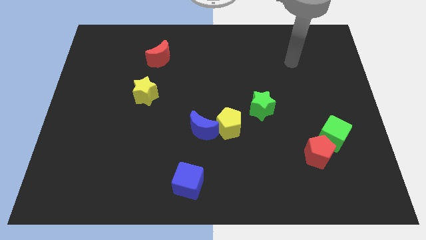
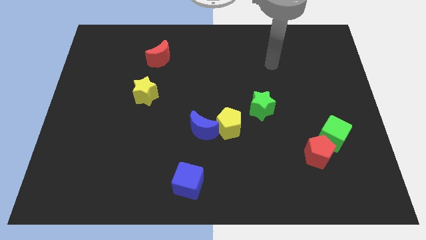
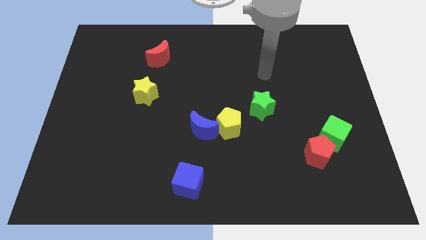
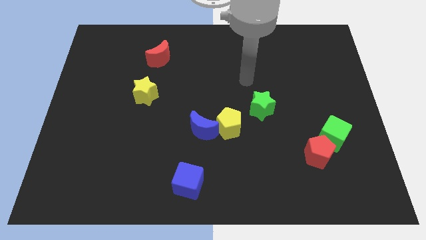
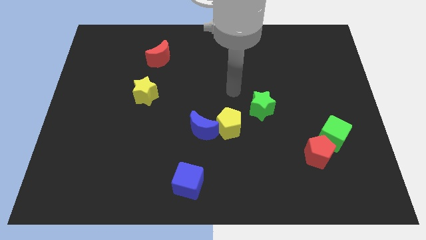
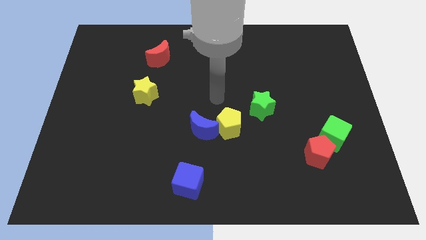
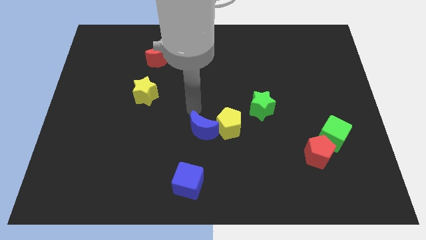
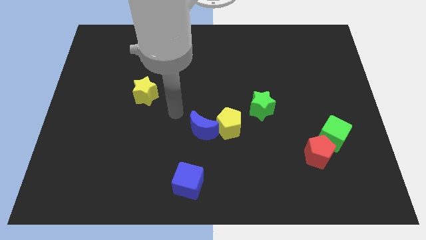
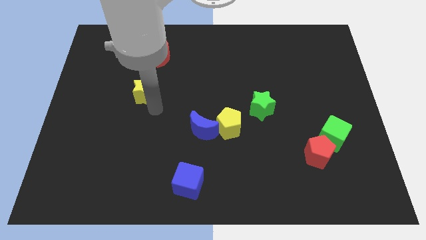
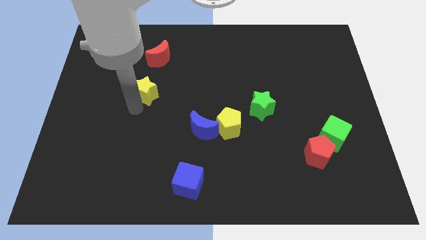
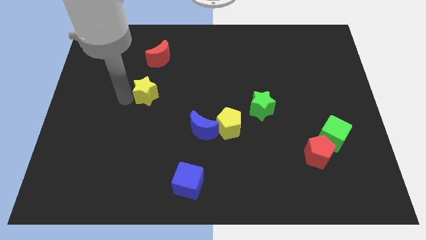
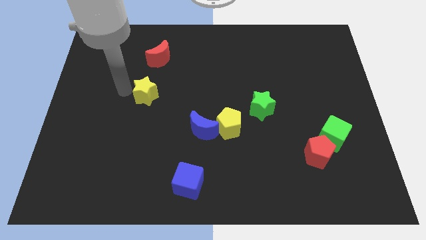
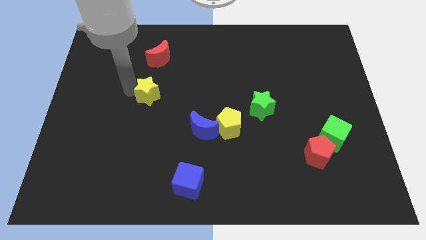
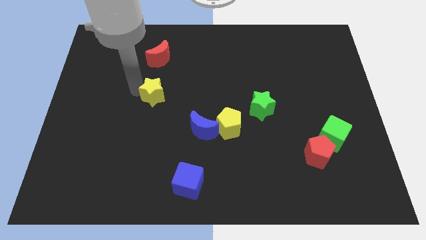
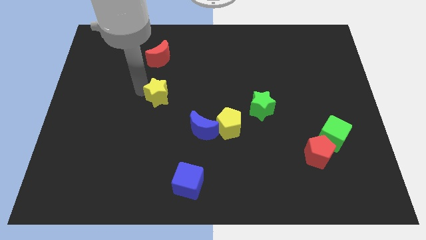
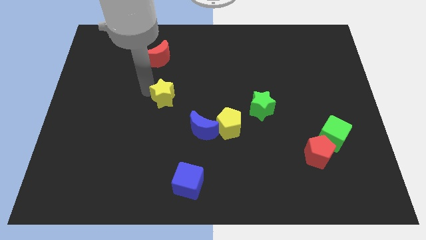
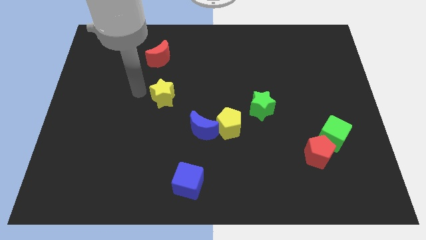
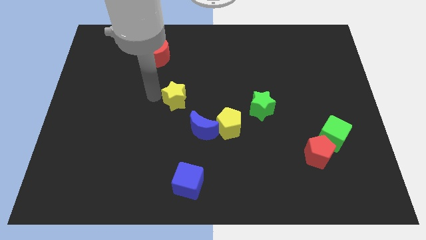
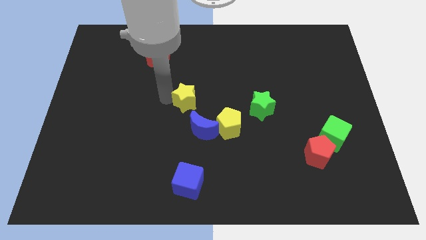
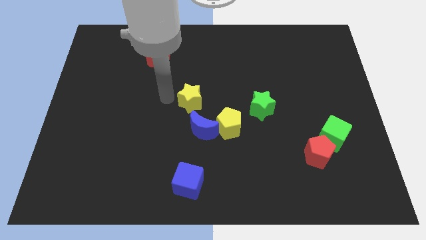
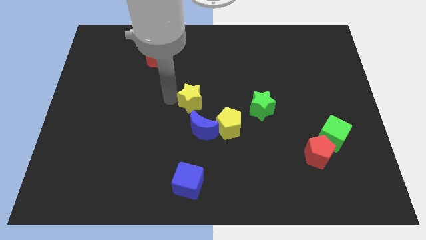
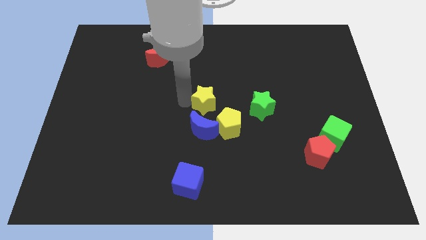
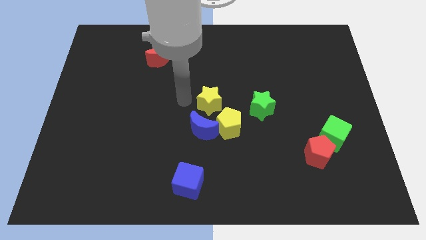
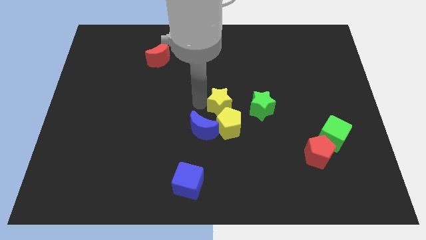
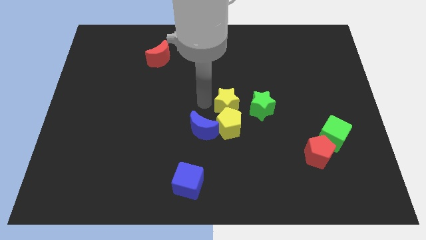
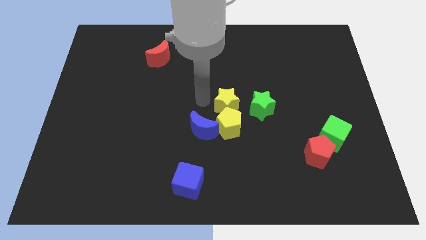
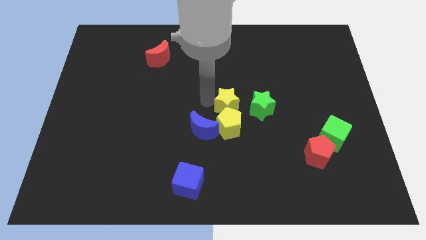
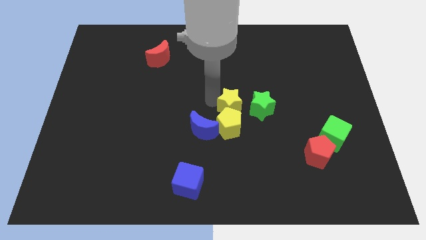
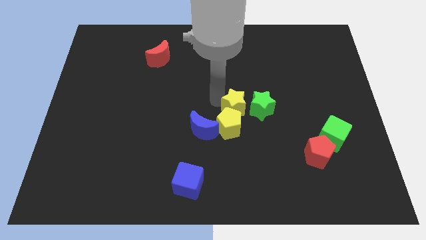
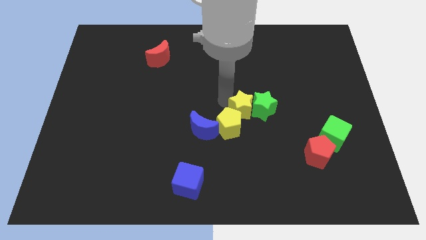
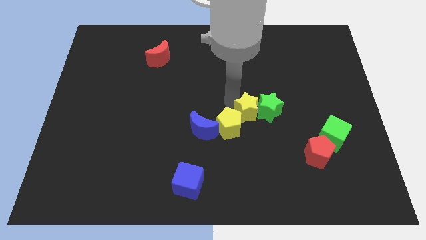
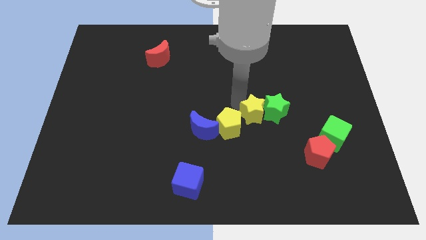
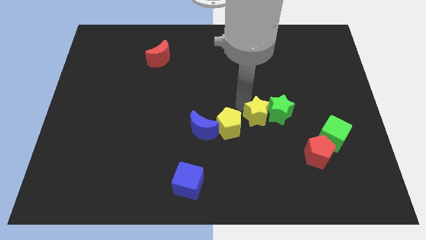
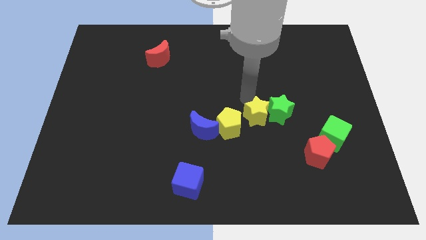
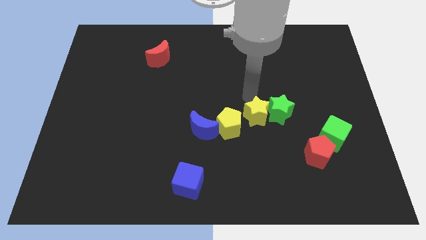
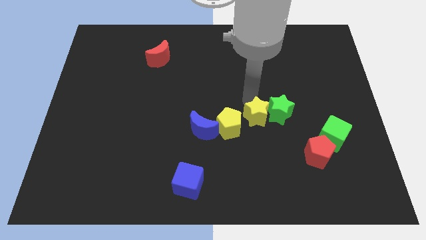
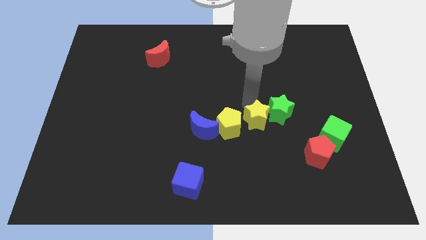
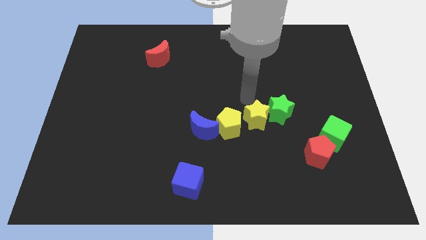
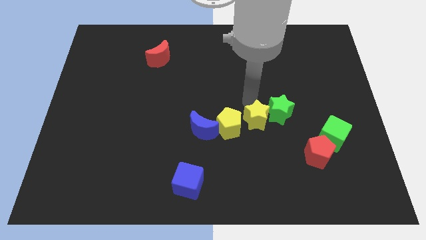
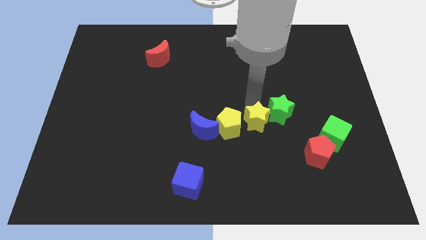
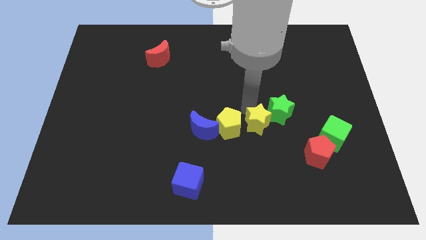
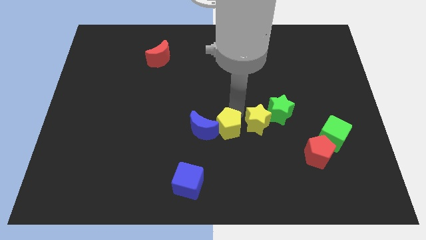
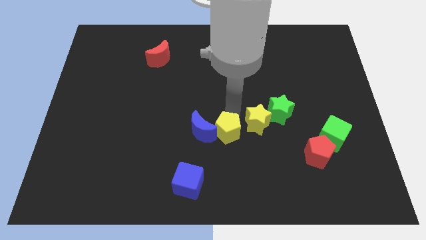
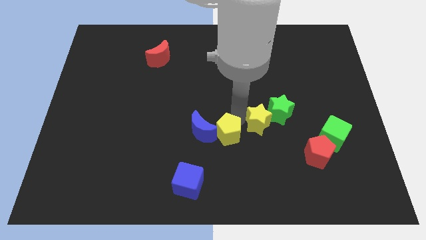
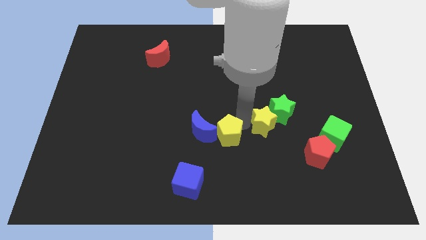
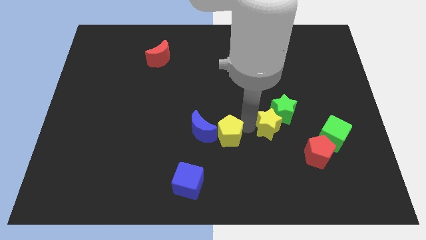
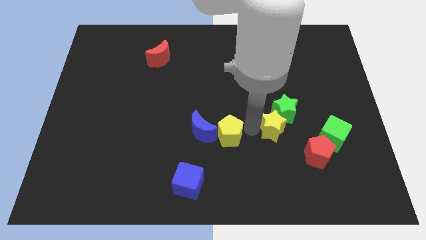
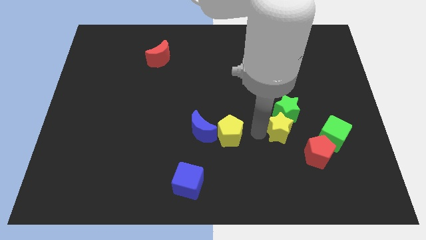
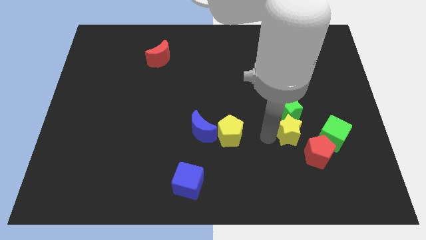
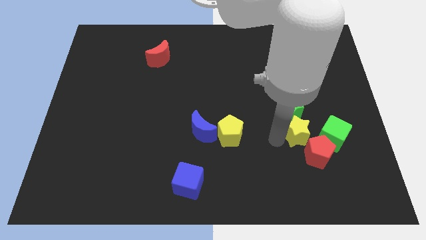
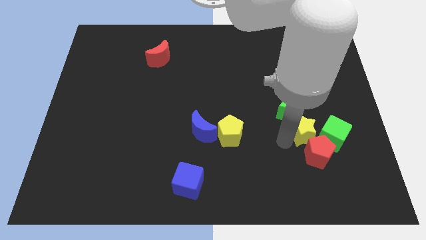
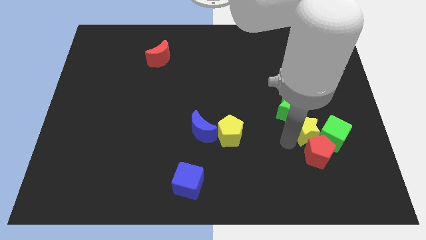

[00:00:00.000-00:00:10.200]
push the yellow star to the green cube

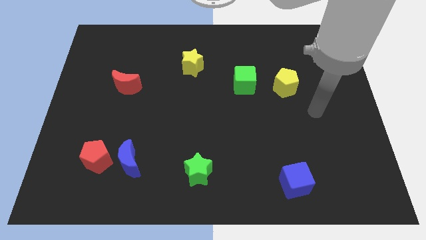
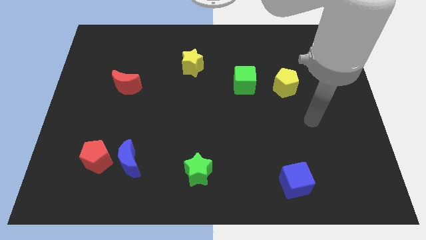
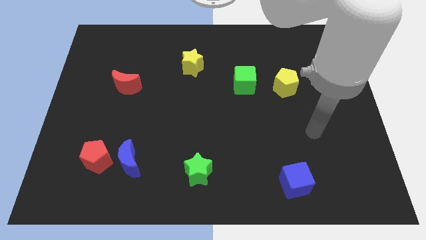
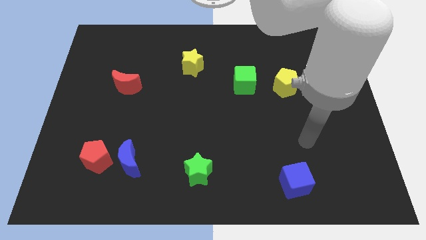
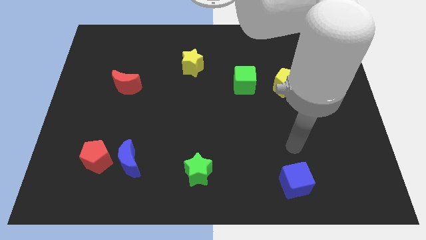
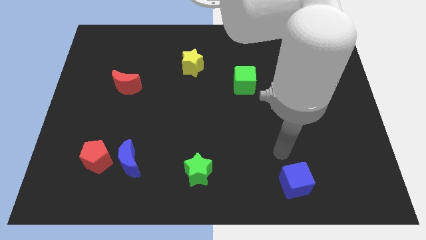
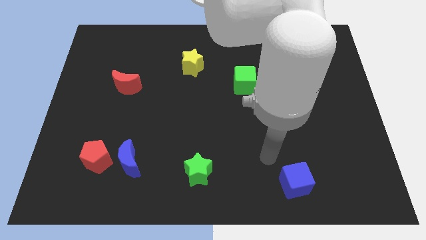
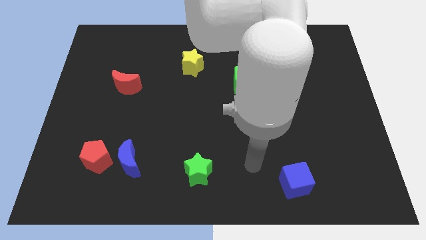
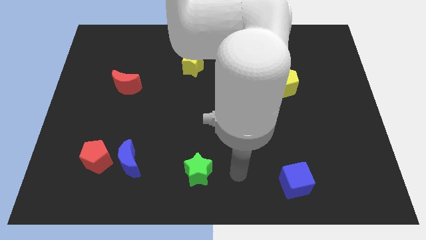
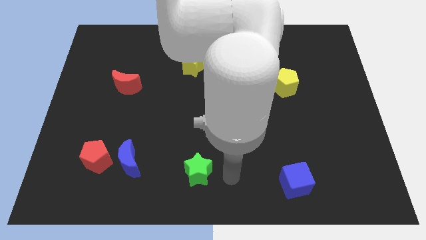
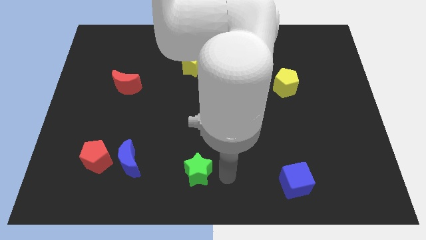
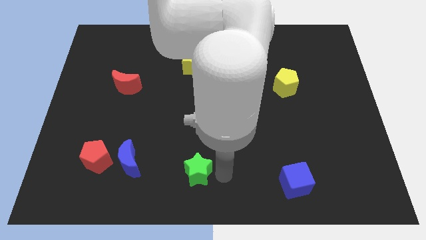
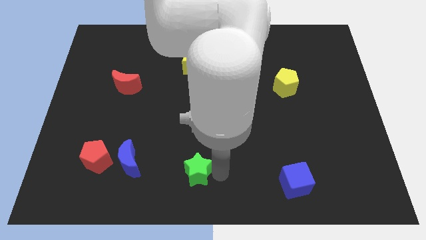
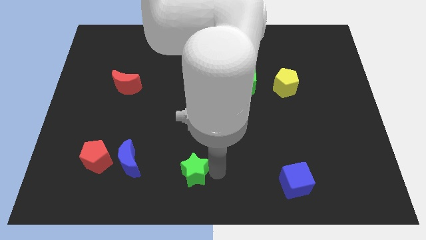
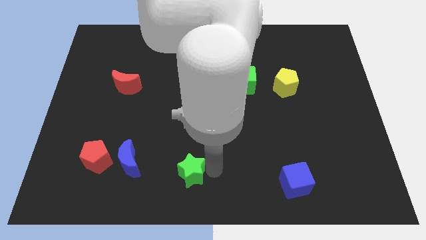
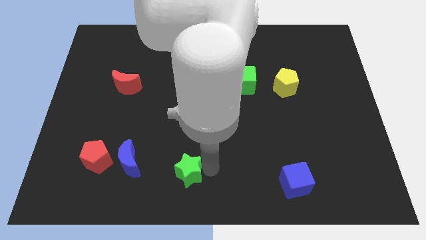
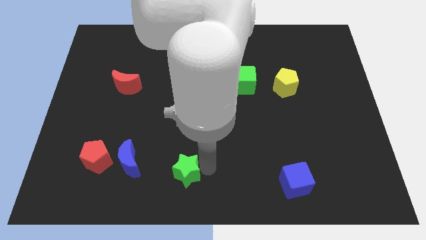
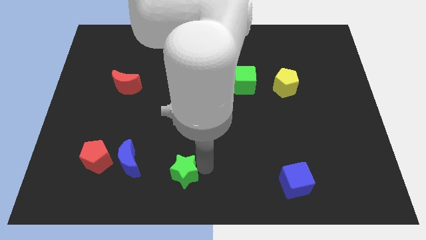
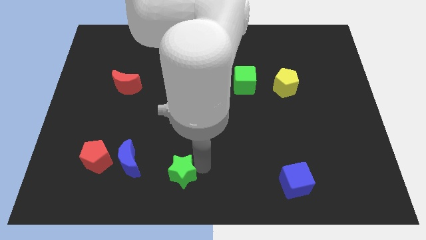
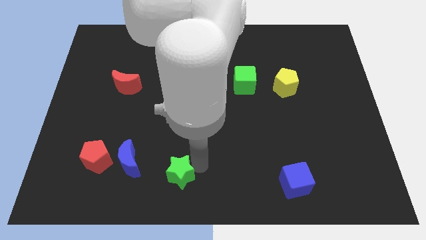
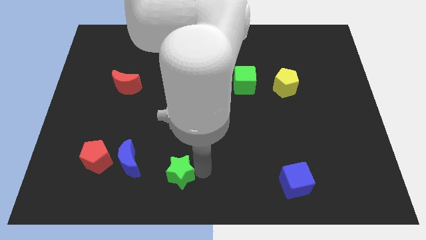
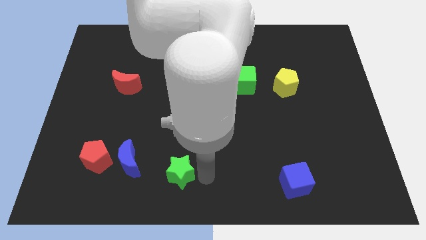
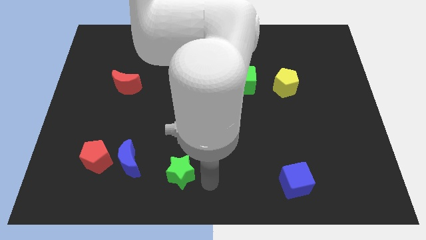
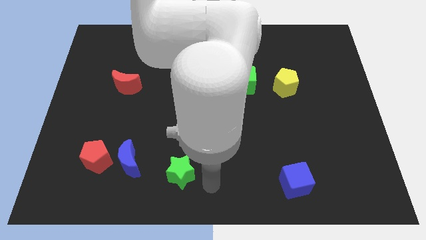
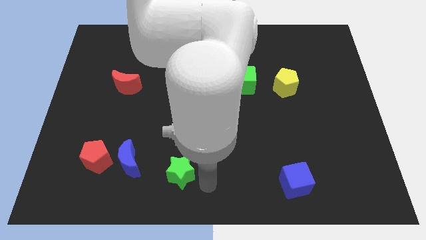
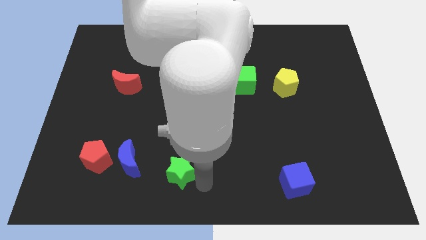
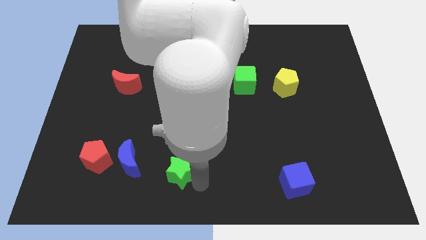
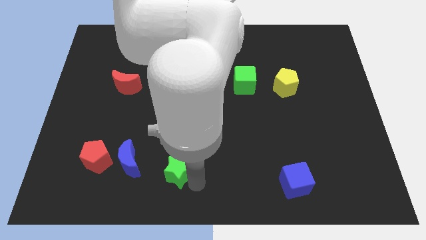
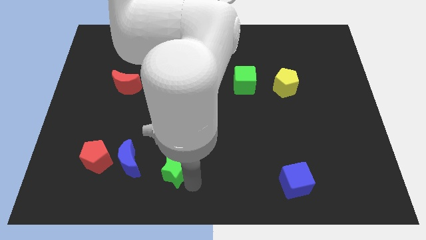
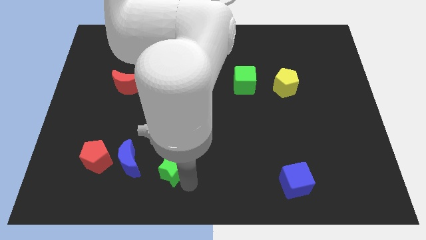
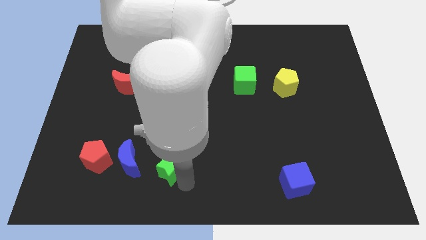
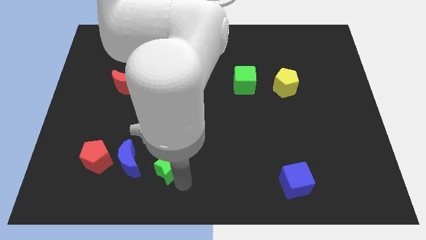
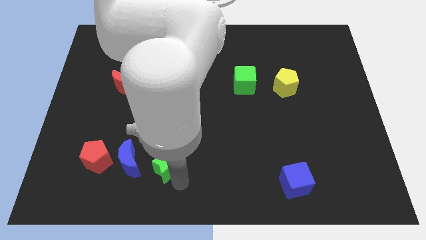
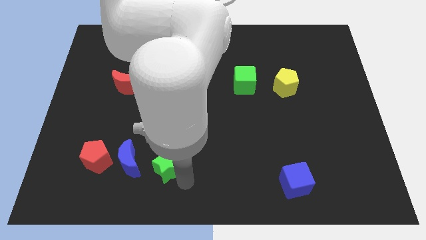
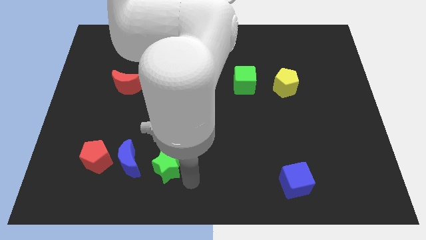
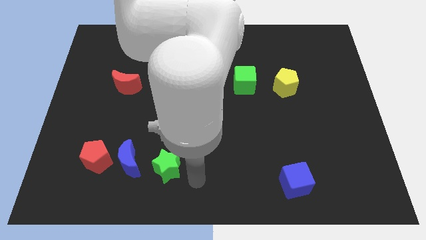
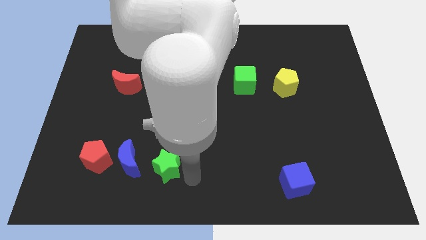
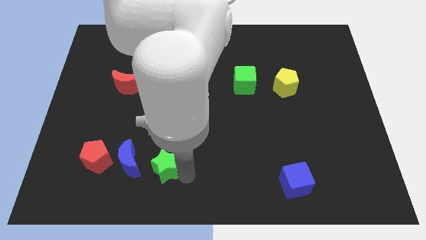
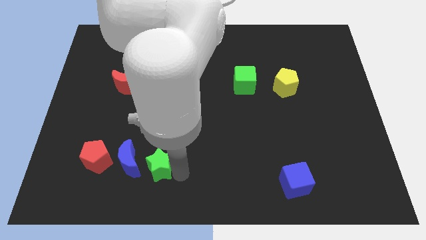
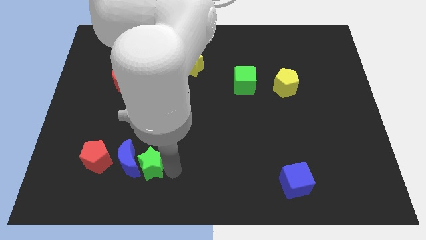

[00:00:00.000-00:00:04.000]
slide the green star next to the blue moon
